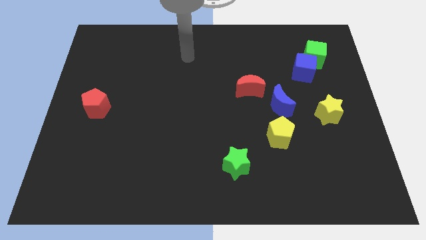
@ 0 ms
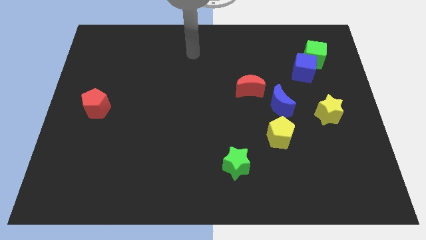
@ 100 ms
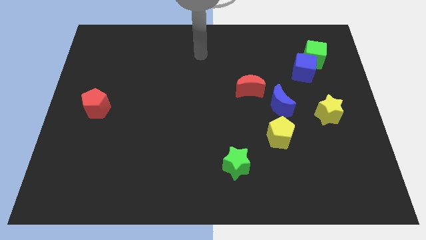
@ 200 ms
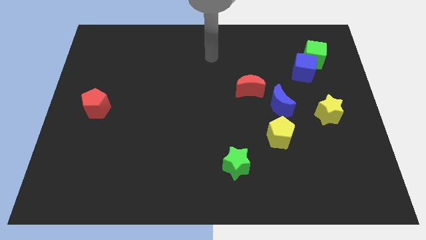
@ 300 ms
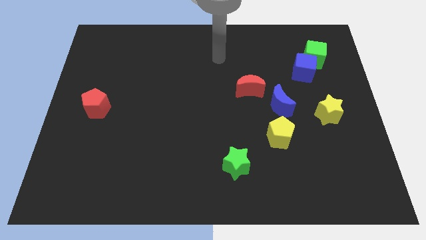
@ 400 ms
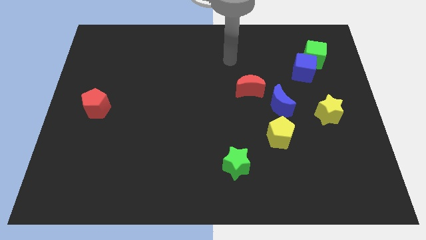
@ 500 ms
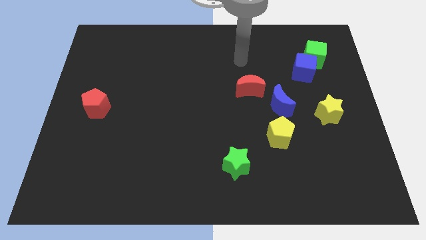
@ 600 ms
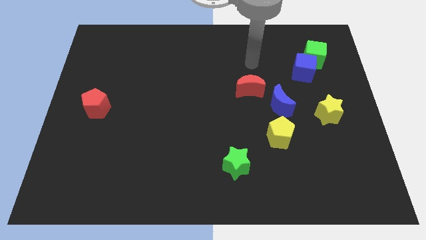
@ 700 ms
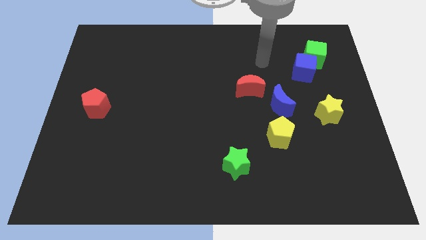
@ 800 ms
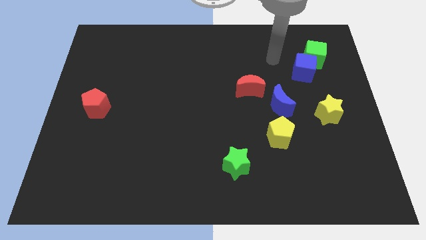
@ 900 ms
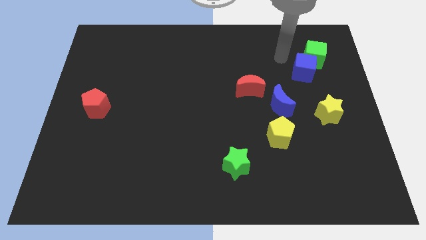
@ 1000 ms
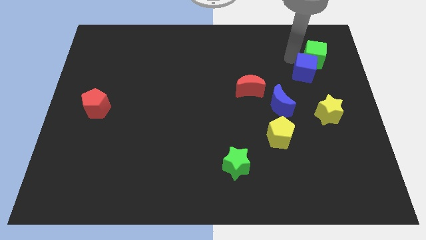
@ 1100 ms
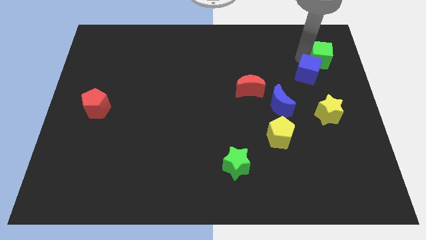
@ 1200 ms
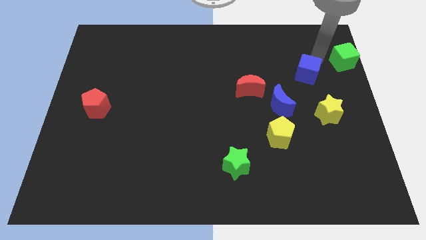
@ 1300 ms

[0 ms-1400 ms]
separate the blue cube from the green cube

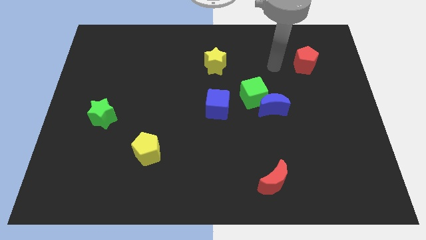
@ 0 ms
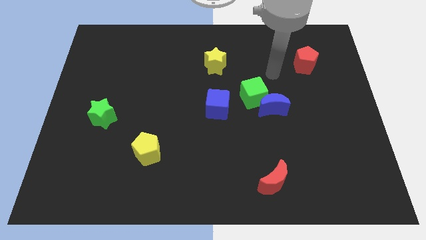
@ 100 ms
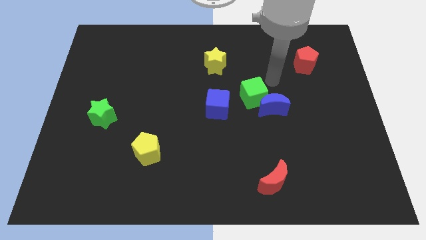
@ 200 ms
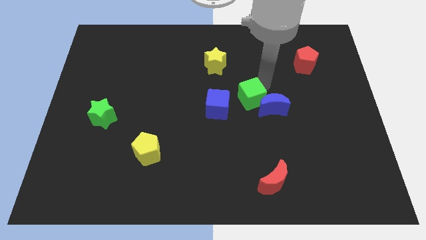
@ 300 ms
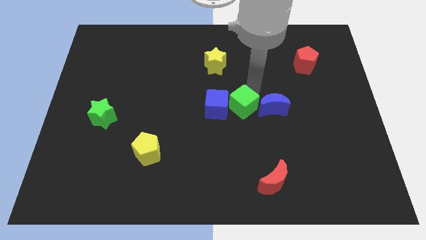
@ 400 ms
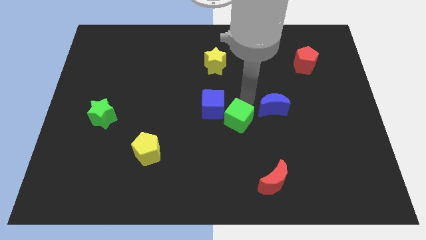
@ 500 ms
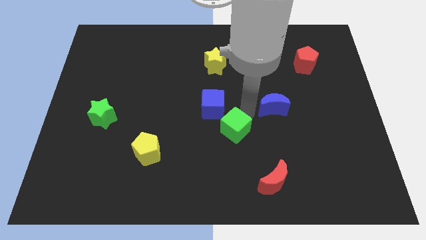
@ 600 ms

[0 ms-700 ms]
separate the blue moon from the green cube

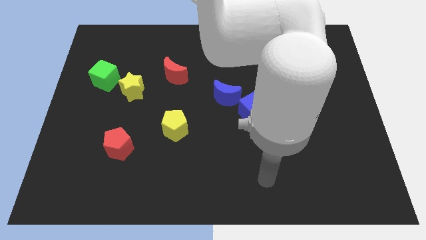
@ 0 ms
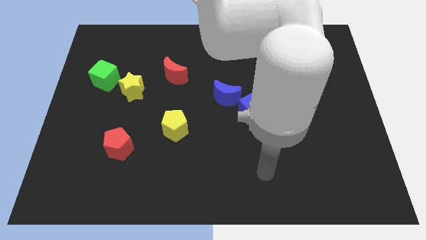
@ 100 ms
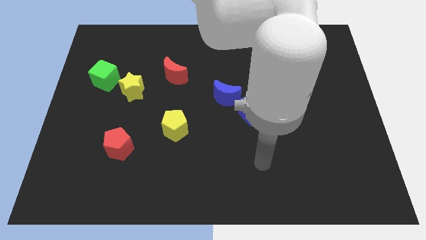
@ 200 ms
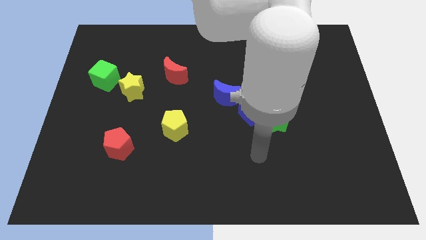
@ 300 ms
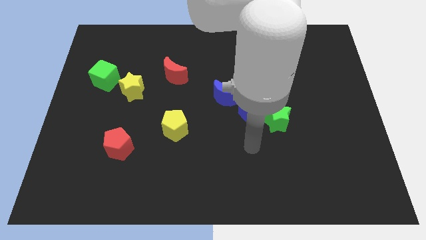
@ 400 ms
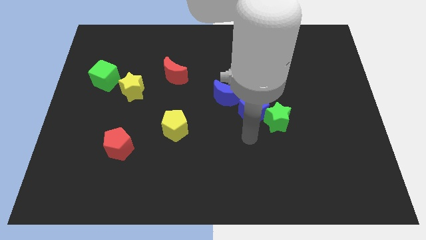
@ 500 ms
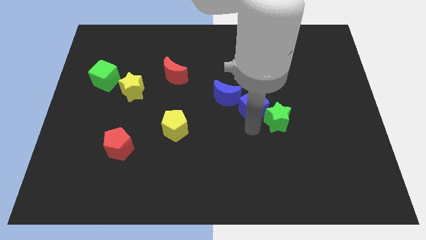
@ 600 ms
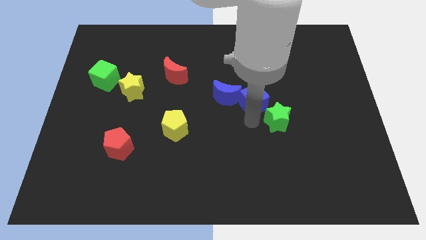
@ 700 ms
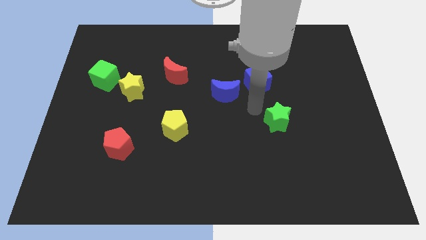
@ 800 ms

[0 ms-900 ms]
separate the green star from the blue cube

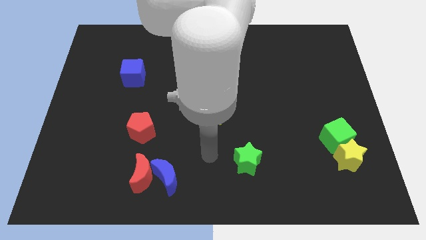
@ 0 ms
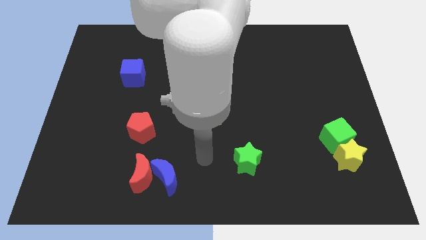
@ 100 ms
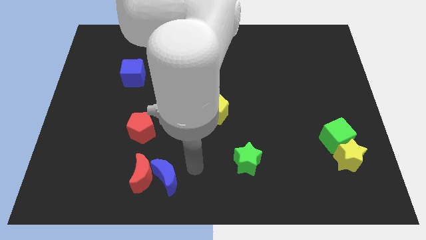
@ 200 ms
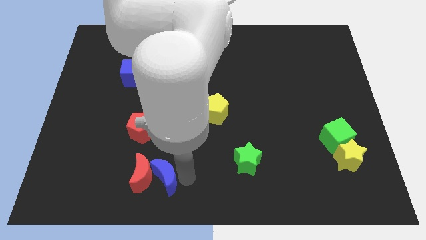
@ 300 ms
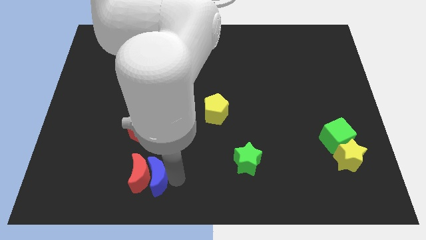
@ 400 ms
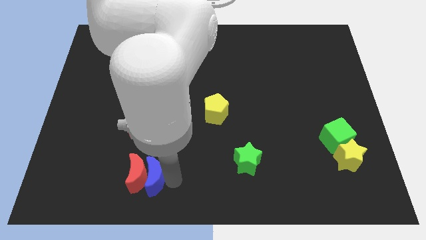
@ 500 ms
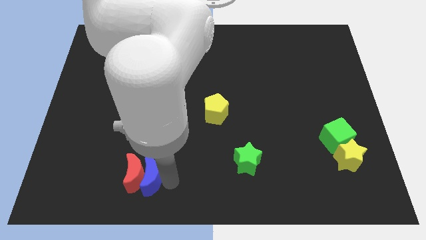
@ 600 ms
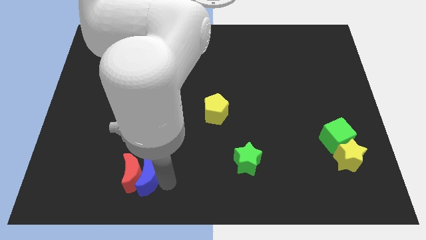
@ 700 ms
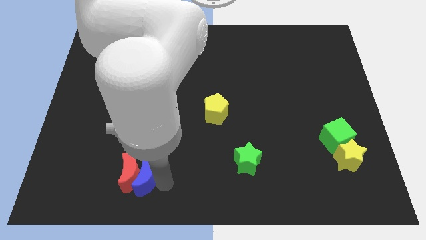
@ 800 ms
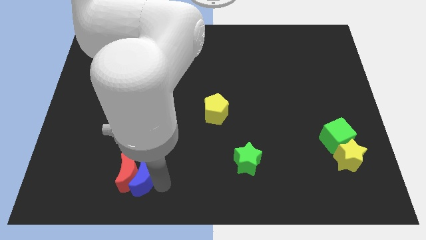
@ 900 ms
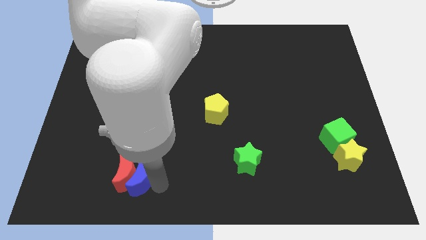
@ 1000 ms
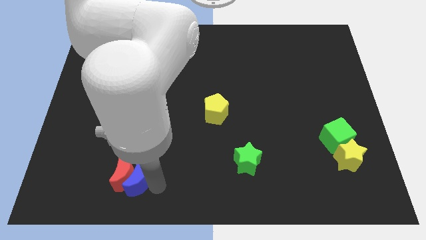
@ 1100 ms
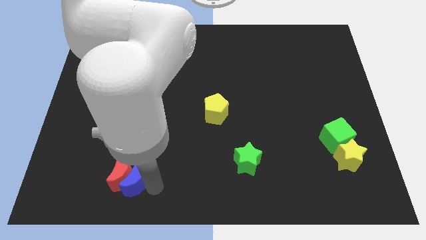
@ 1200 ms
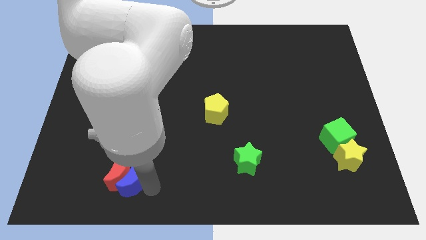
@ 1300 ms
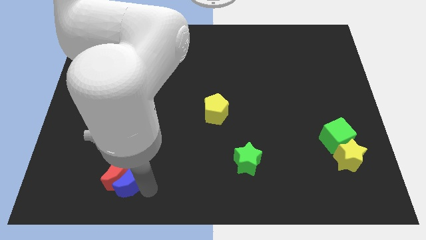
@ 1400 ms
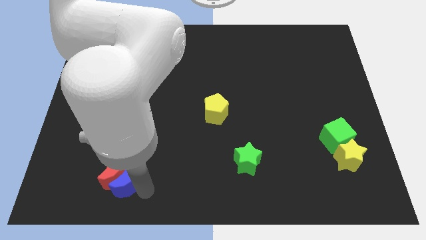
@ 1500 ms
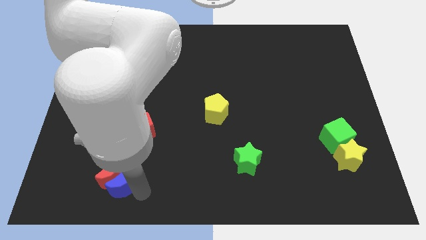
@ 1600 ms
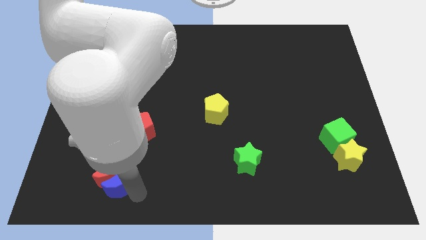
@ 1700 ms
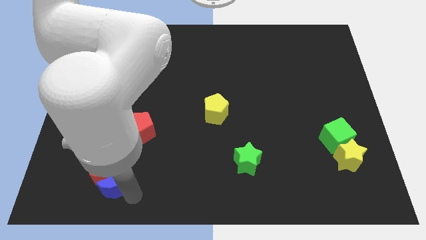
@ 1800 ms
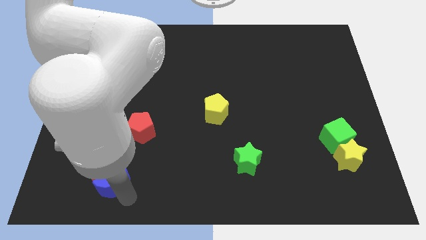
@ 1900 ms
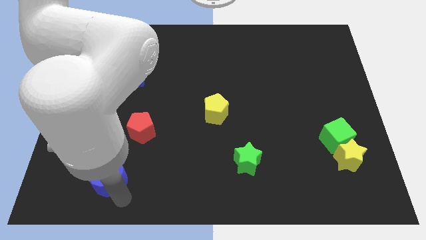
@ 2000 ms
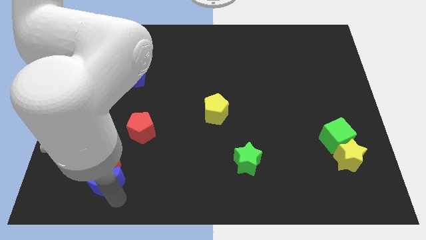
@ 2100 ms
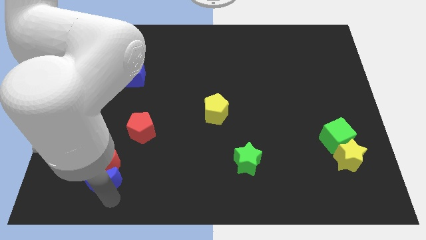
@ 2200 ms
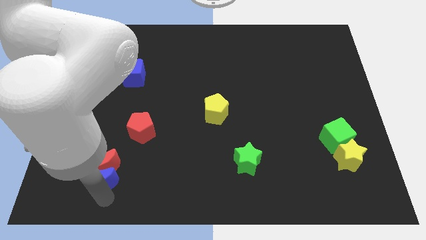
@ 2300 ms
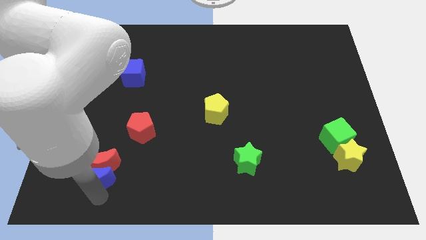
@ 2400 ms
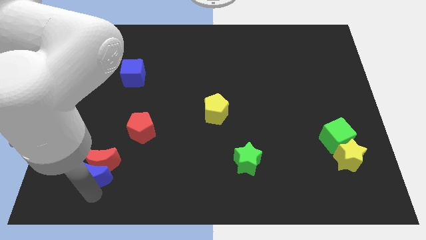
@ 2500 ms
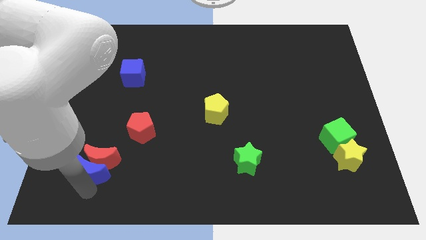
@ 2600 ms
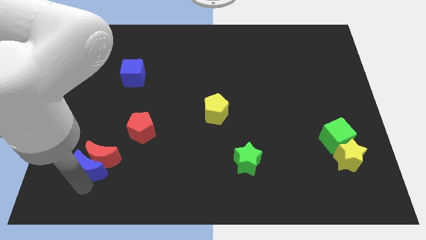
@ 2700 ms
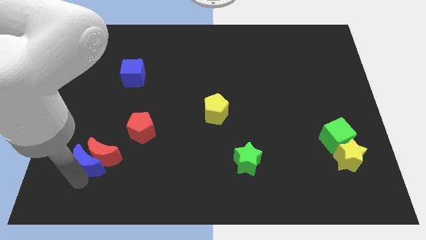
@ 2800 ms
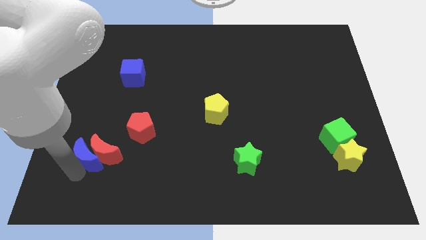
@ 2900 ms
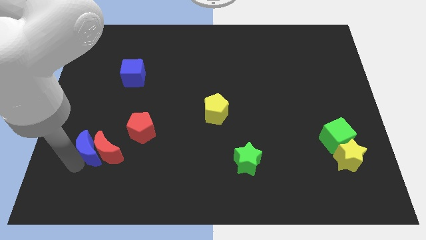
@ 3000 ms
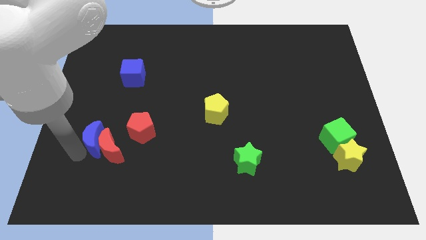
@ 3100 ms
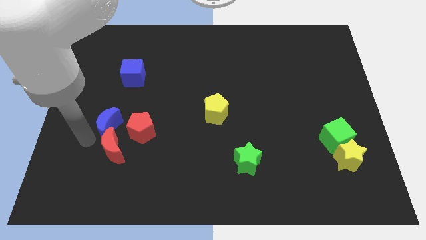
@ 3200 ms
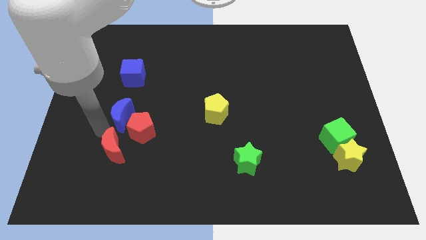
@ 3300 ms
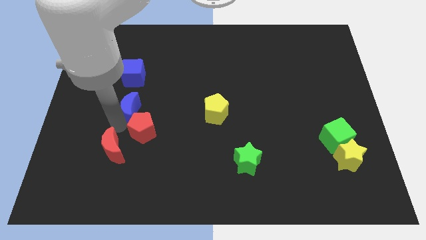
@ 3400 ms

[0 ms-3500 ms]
move the red moon away from the blue moon

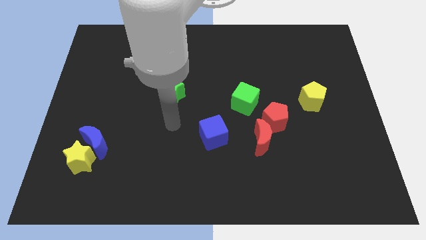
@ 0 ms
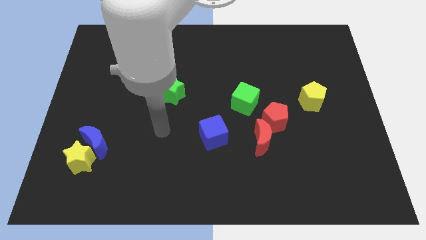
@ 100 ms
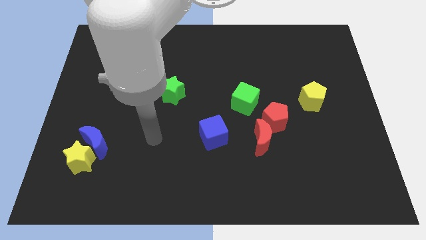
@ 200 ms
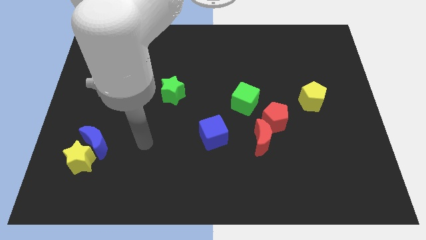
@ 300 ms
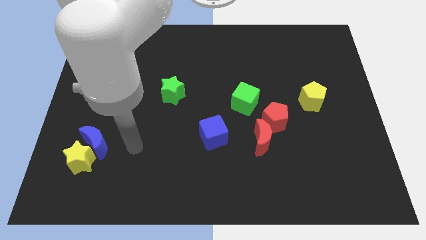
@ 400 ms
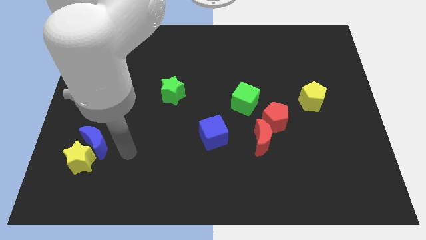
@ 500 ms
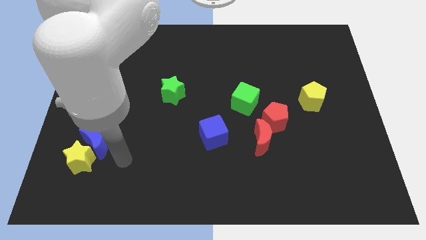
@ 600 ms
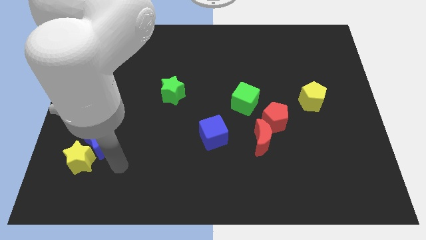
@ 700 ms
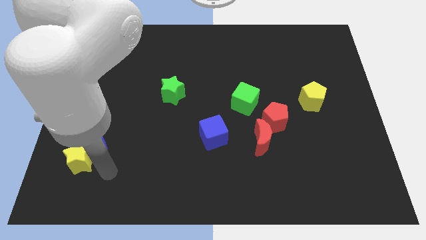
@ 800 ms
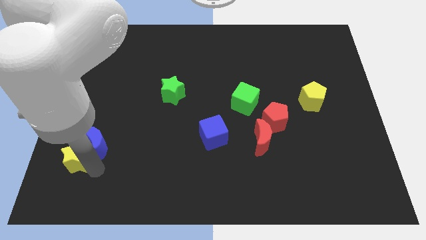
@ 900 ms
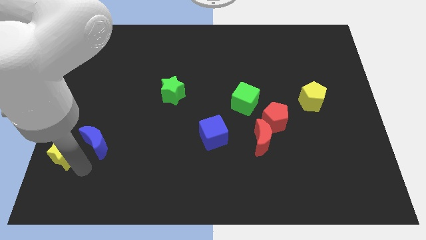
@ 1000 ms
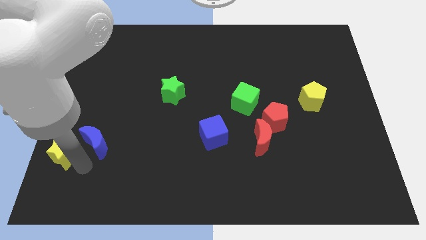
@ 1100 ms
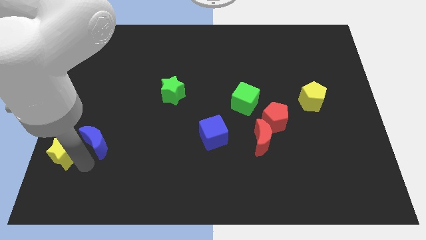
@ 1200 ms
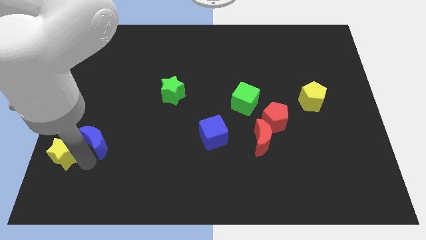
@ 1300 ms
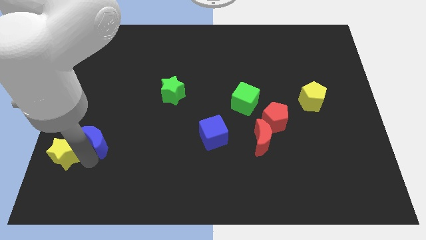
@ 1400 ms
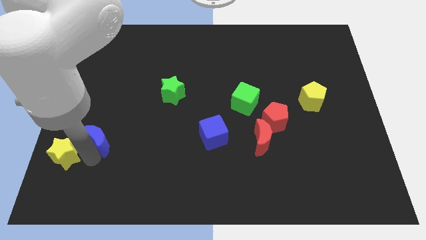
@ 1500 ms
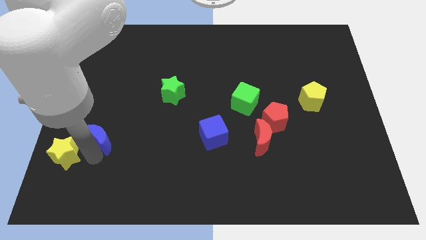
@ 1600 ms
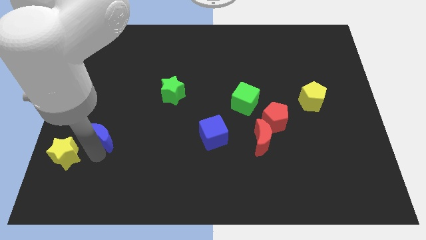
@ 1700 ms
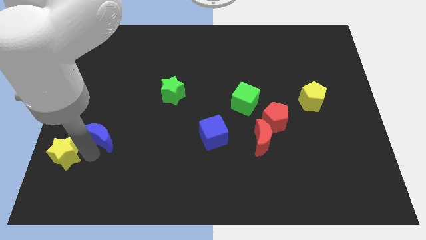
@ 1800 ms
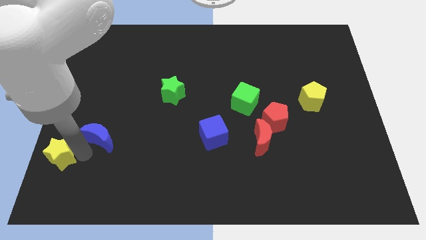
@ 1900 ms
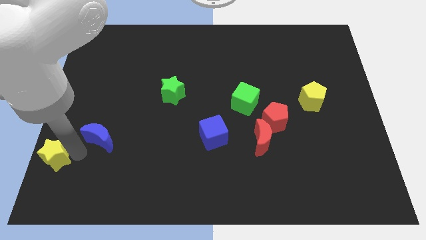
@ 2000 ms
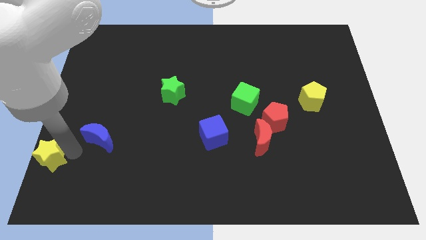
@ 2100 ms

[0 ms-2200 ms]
pull the blue moon apart from the yellow star

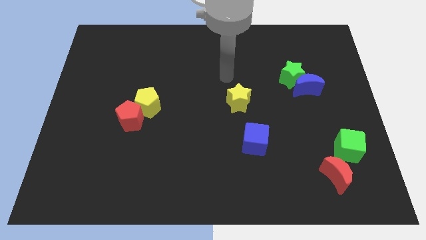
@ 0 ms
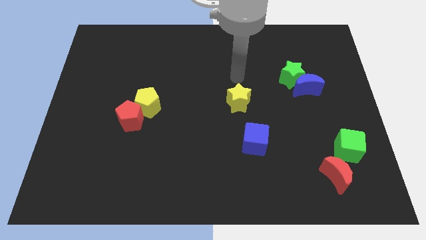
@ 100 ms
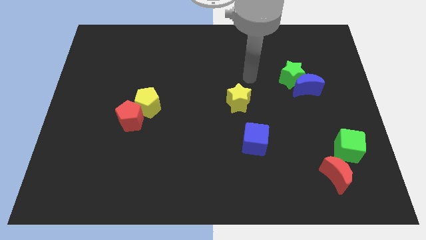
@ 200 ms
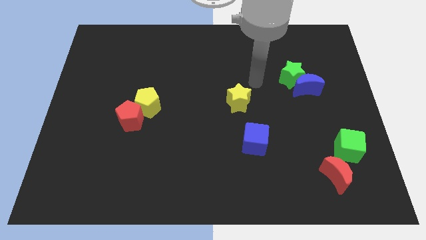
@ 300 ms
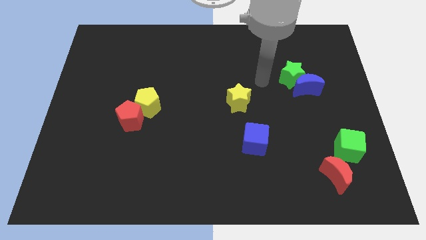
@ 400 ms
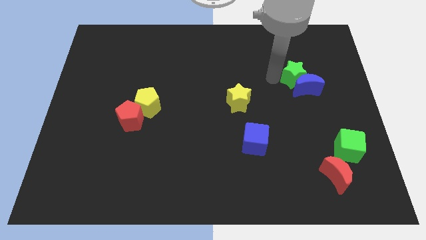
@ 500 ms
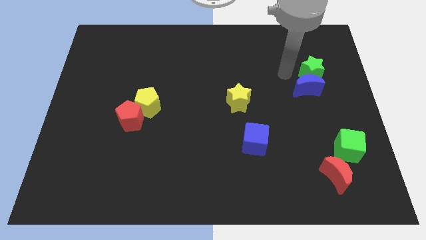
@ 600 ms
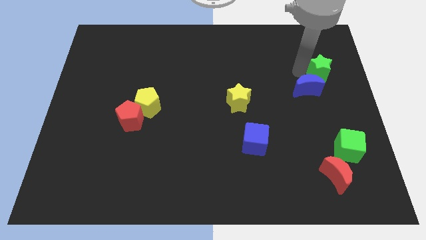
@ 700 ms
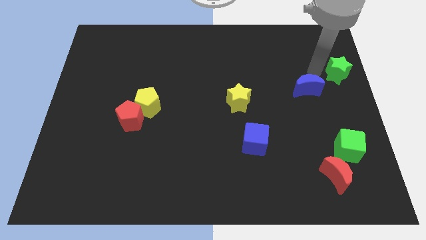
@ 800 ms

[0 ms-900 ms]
move the blue moon away from the green star
